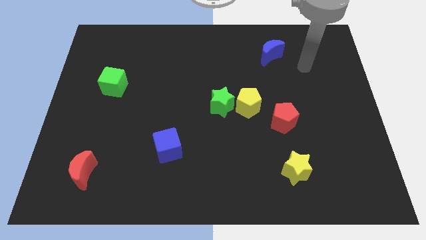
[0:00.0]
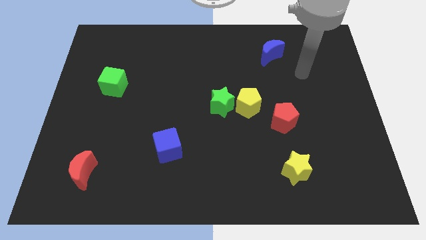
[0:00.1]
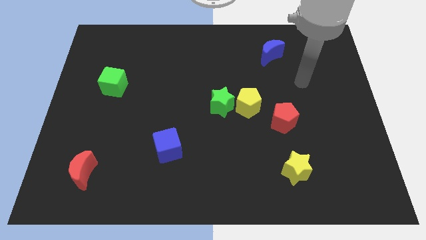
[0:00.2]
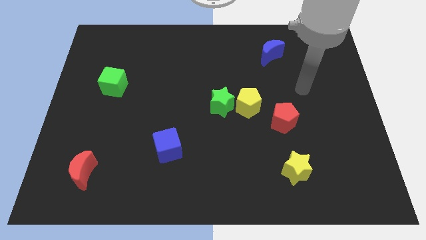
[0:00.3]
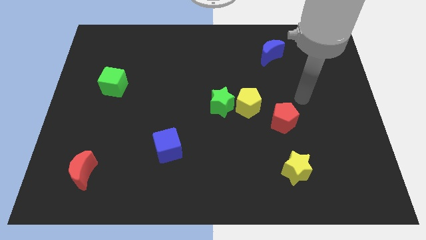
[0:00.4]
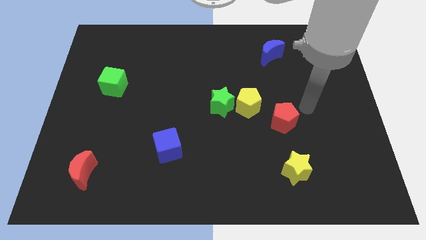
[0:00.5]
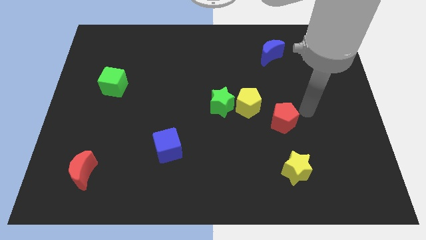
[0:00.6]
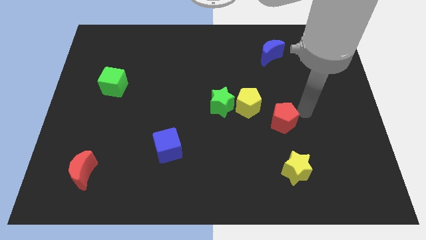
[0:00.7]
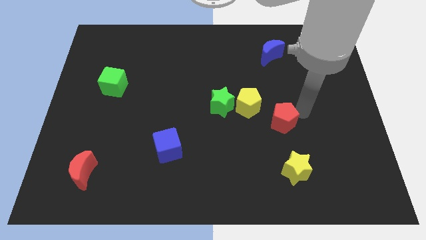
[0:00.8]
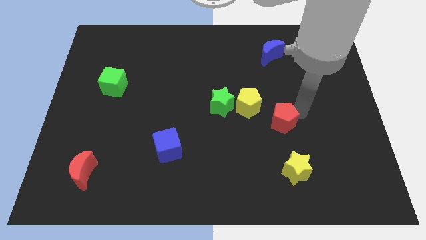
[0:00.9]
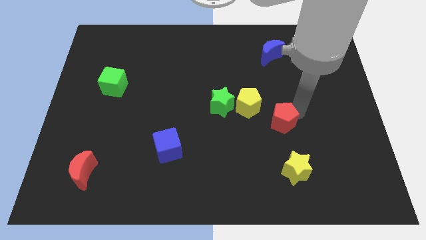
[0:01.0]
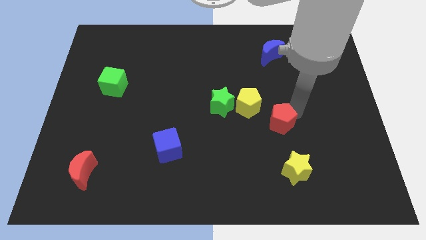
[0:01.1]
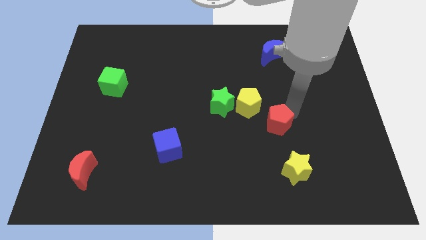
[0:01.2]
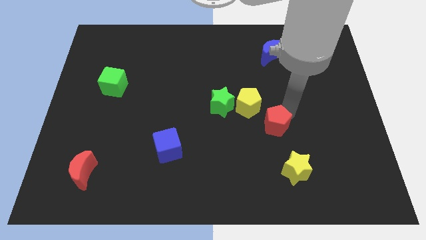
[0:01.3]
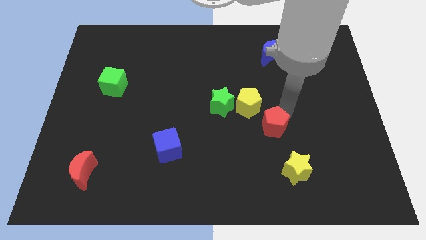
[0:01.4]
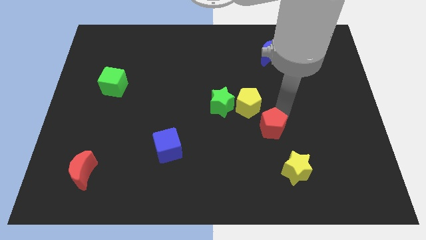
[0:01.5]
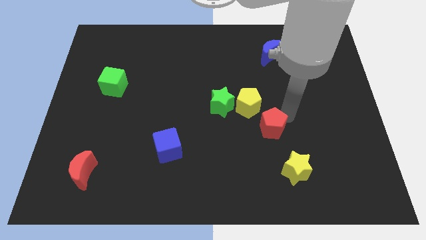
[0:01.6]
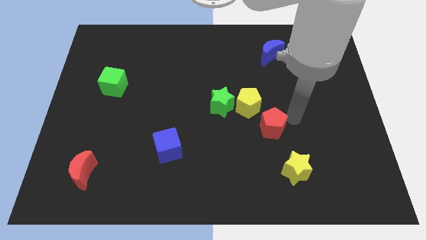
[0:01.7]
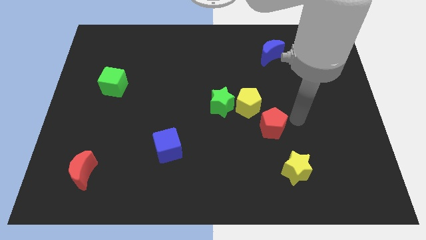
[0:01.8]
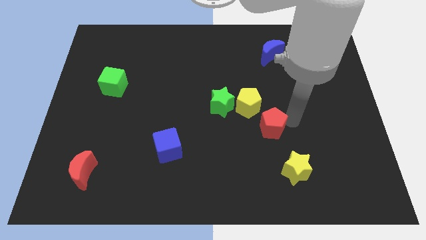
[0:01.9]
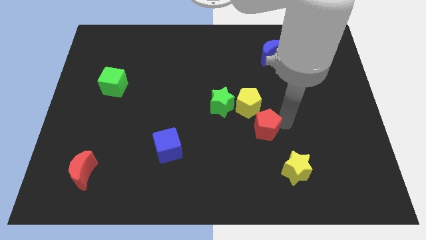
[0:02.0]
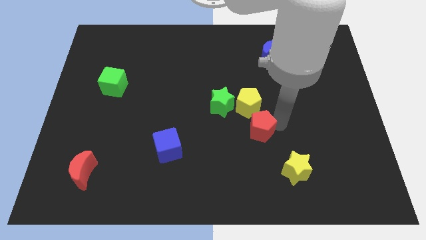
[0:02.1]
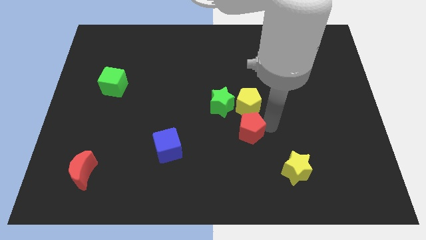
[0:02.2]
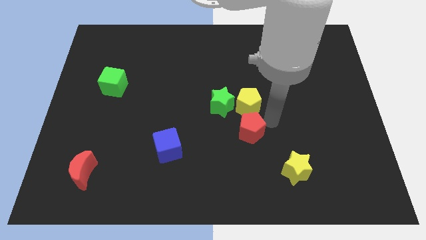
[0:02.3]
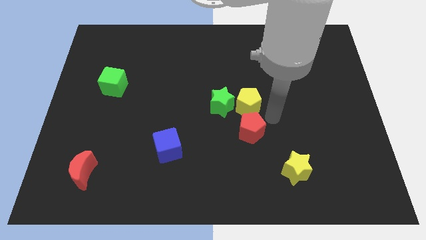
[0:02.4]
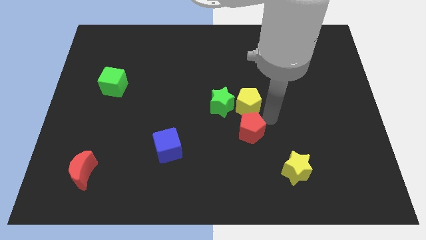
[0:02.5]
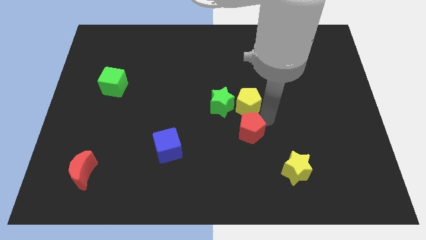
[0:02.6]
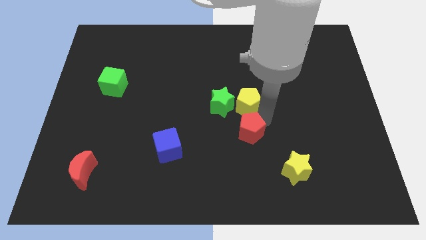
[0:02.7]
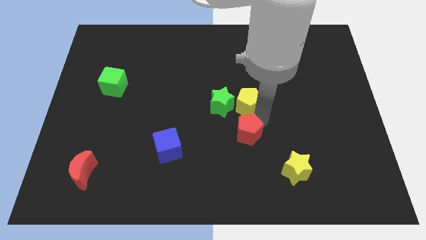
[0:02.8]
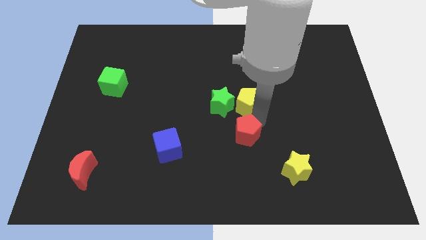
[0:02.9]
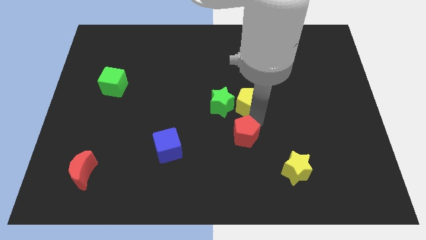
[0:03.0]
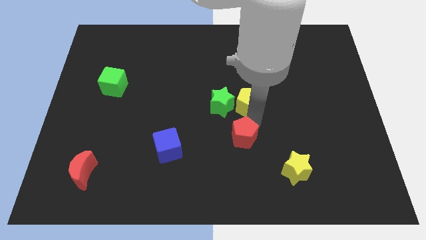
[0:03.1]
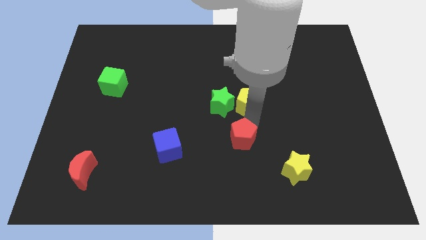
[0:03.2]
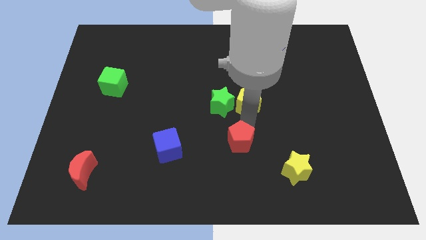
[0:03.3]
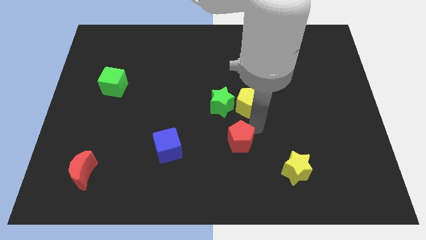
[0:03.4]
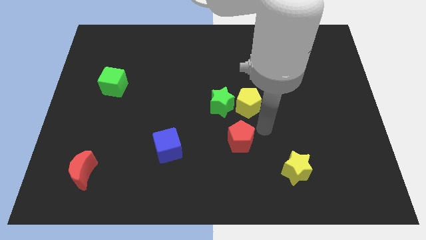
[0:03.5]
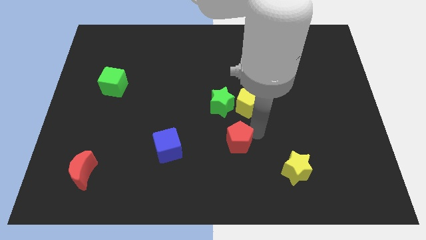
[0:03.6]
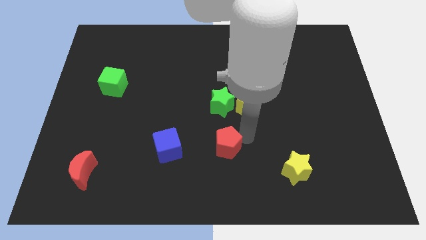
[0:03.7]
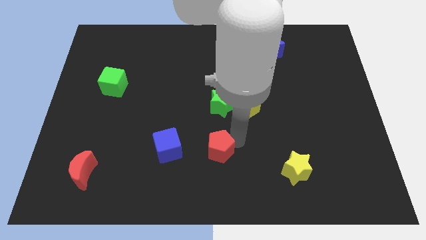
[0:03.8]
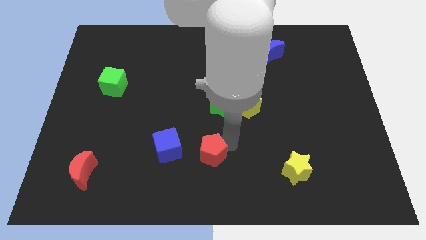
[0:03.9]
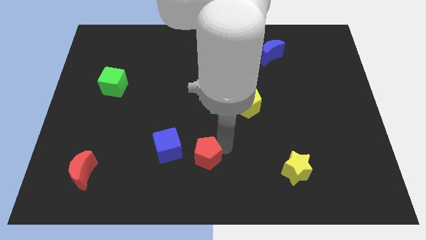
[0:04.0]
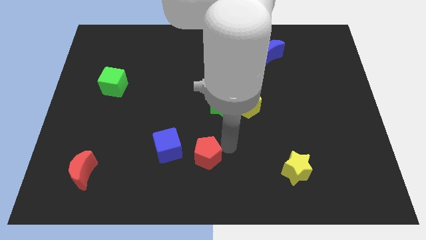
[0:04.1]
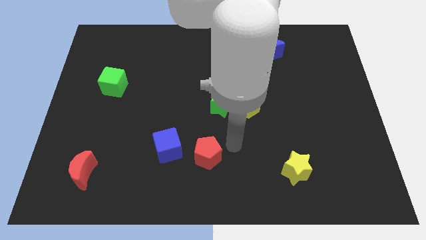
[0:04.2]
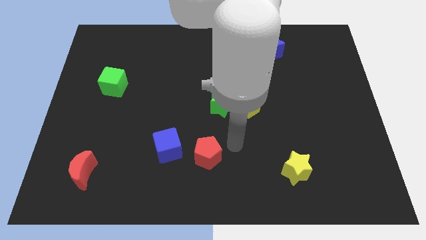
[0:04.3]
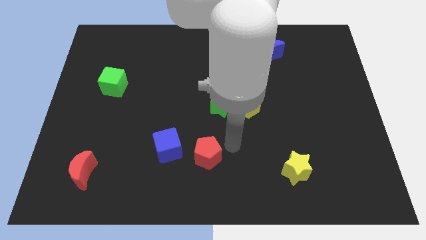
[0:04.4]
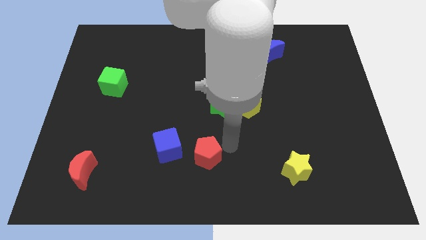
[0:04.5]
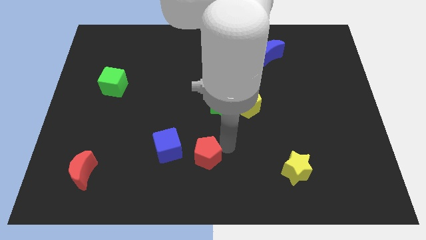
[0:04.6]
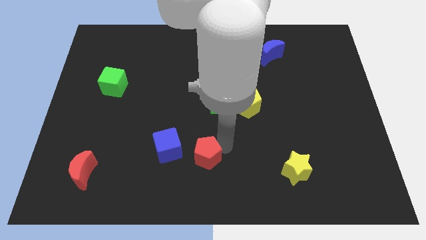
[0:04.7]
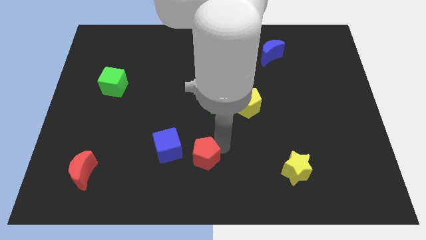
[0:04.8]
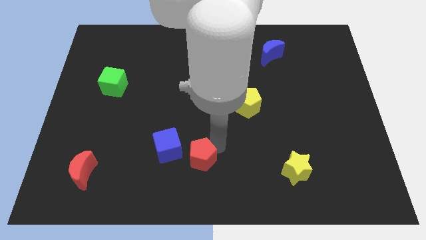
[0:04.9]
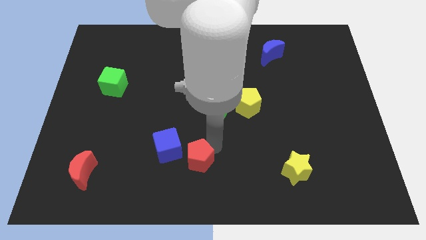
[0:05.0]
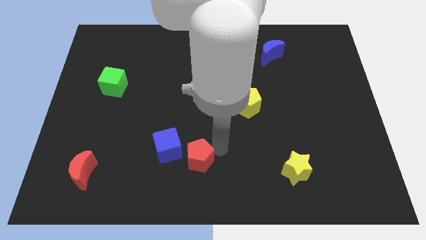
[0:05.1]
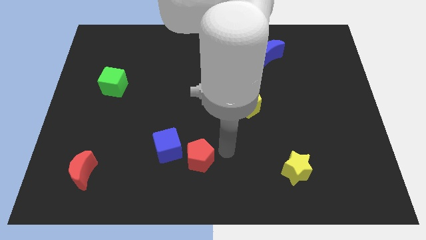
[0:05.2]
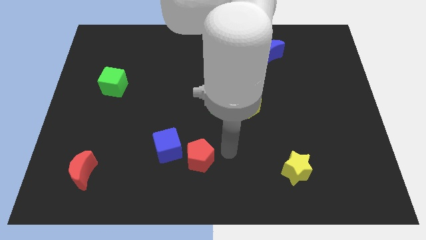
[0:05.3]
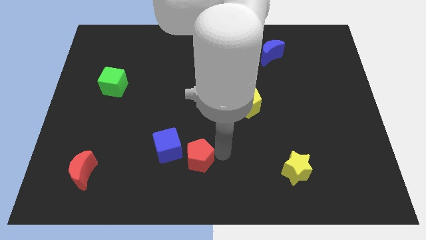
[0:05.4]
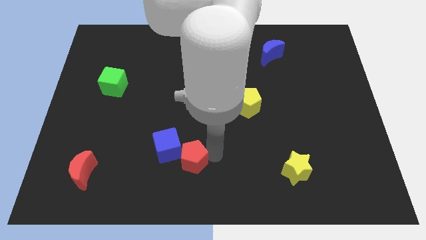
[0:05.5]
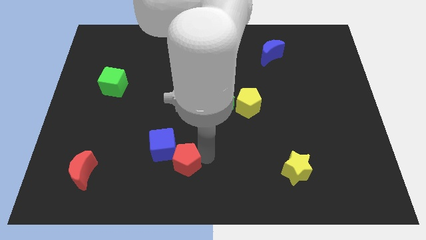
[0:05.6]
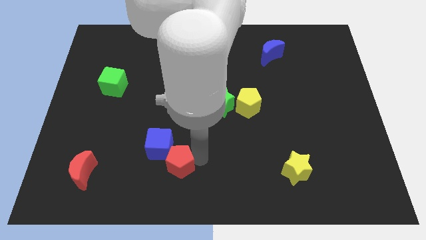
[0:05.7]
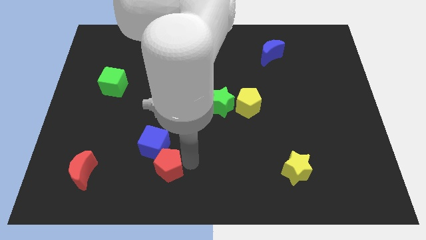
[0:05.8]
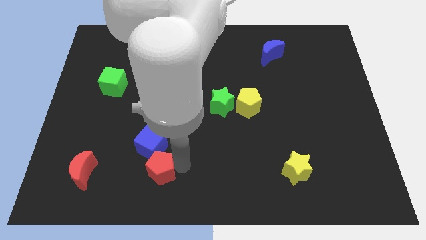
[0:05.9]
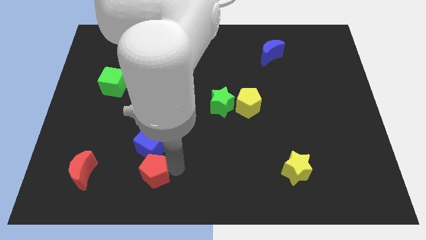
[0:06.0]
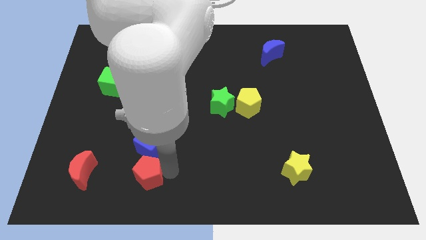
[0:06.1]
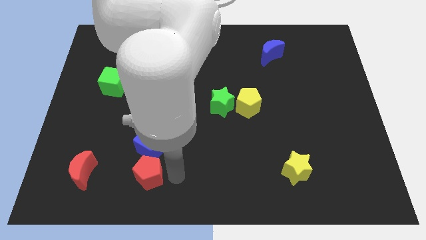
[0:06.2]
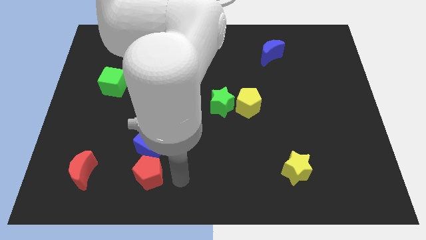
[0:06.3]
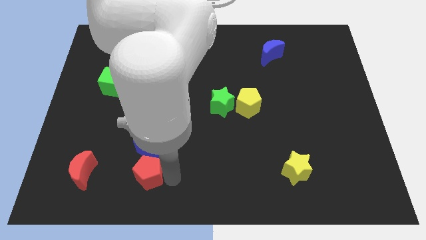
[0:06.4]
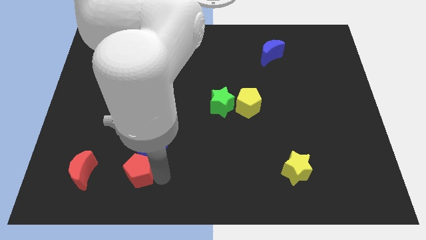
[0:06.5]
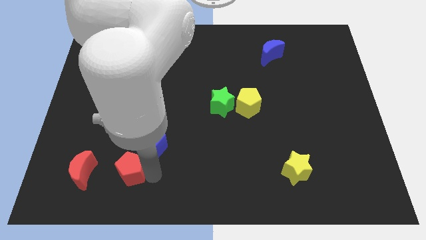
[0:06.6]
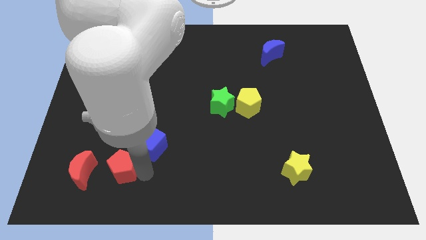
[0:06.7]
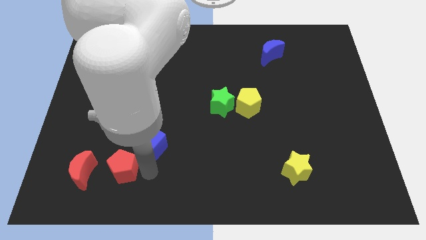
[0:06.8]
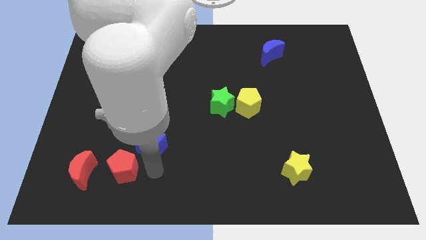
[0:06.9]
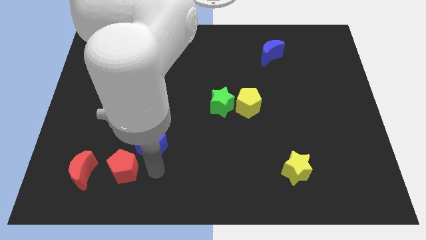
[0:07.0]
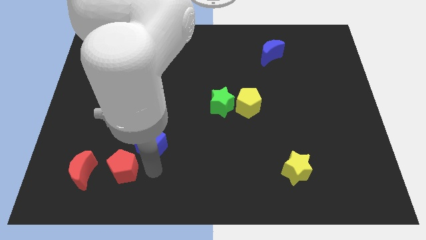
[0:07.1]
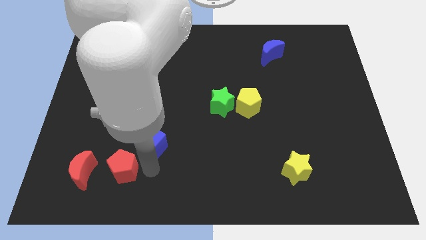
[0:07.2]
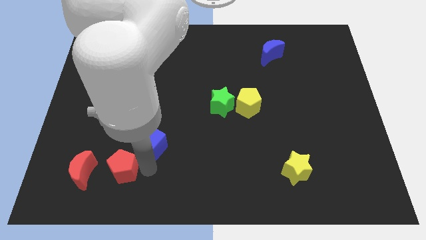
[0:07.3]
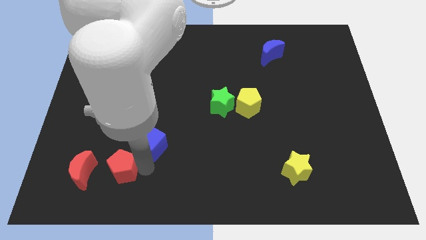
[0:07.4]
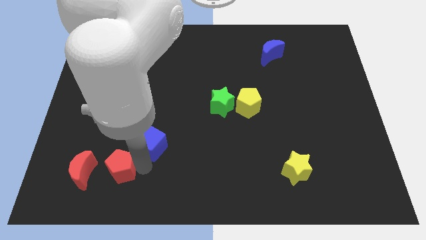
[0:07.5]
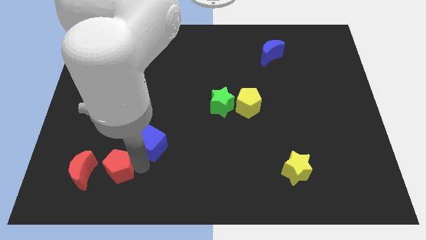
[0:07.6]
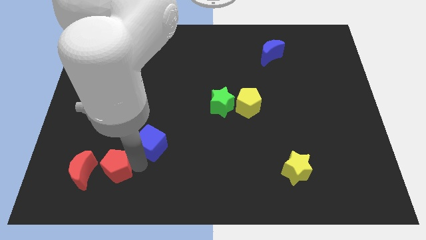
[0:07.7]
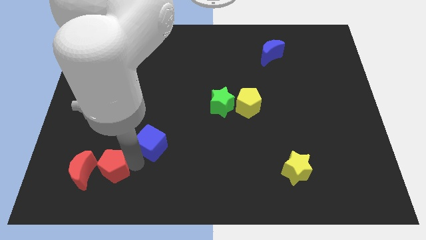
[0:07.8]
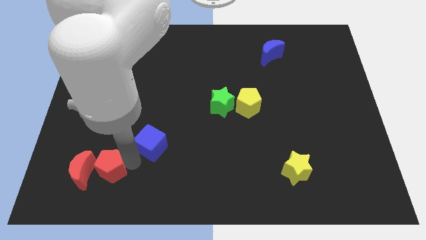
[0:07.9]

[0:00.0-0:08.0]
slide the red pentagon close to the red moon
